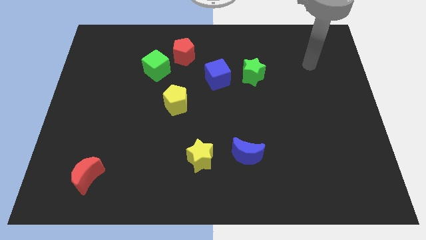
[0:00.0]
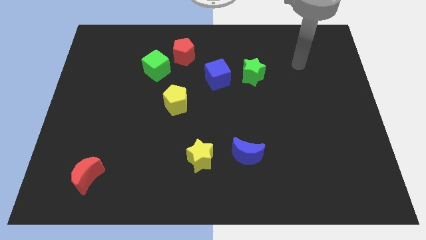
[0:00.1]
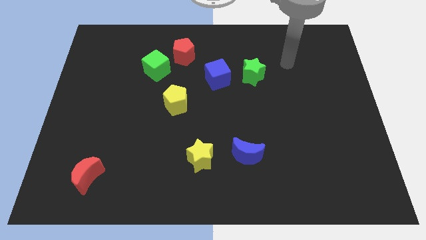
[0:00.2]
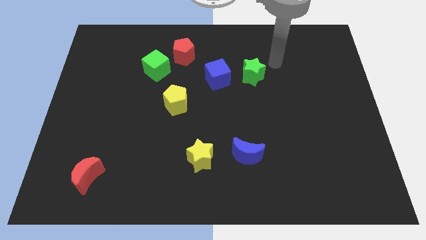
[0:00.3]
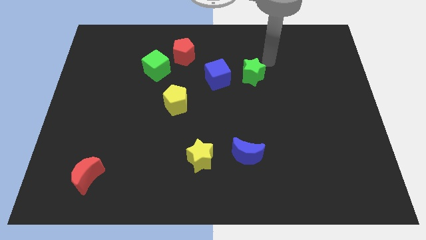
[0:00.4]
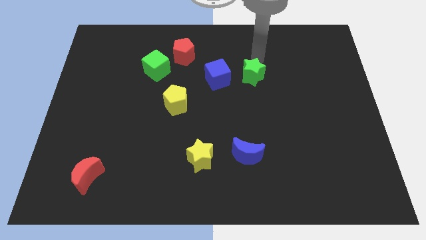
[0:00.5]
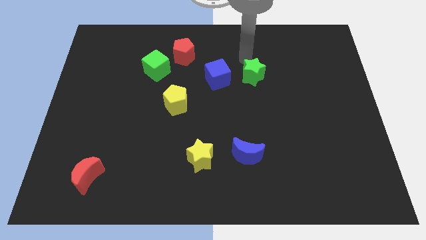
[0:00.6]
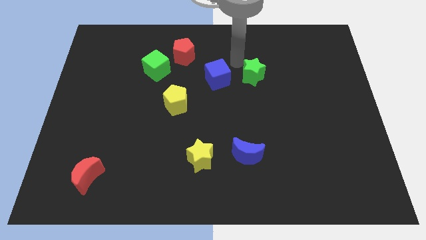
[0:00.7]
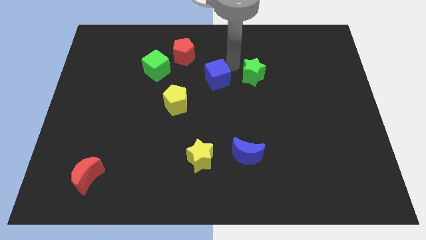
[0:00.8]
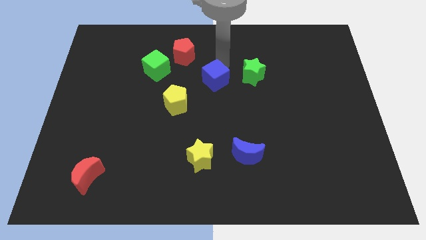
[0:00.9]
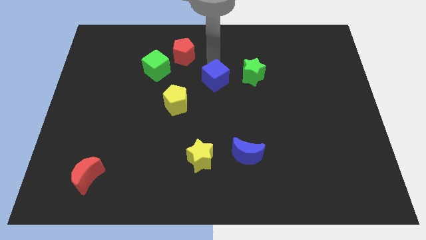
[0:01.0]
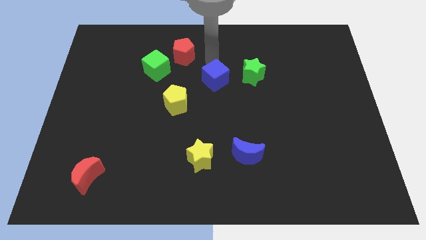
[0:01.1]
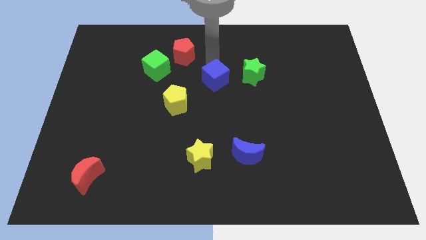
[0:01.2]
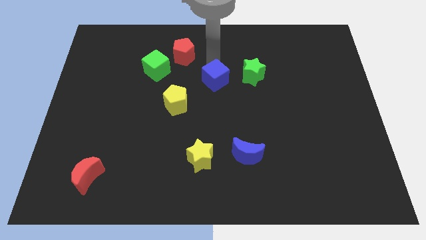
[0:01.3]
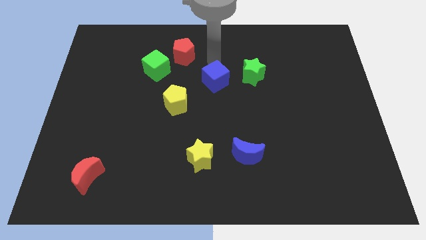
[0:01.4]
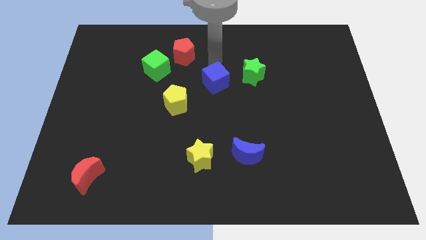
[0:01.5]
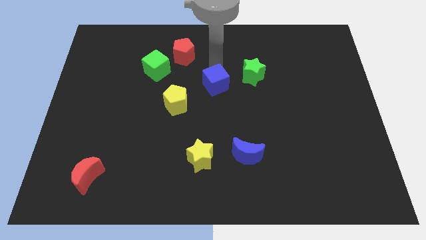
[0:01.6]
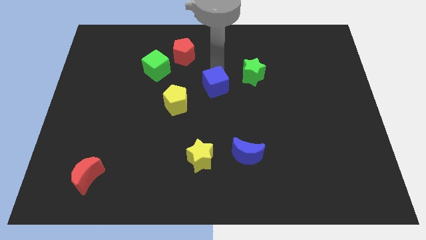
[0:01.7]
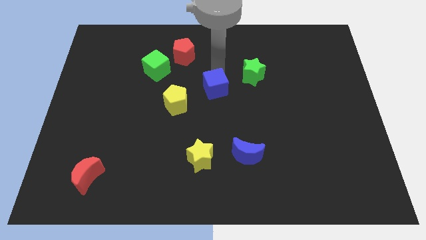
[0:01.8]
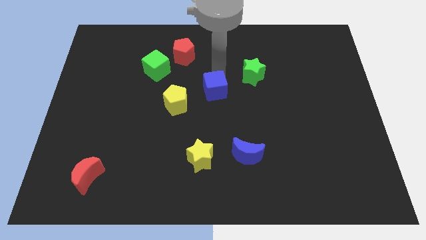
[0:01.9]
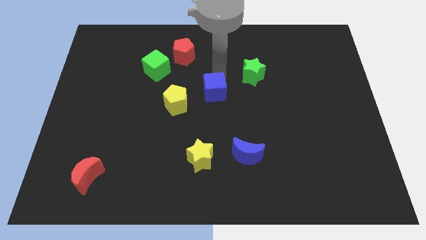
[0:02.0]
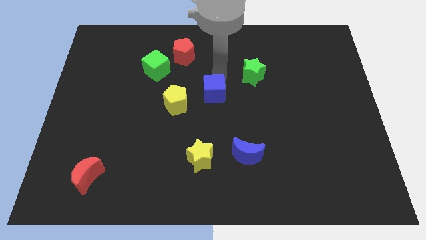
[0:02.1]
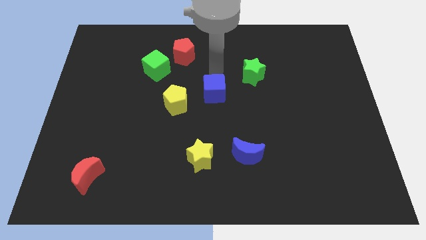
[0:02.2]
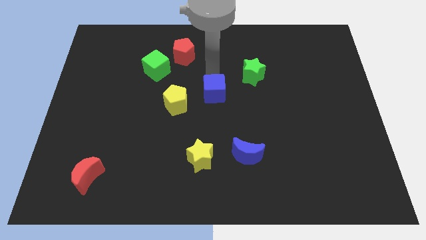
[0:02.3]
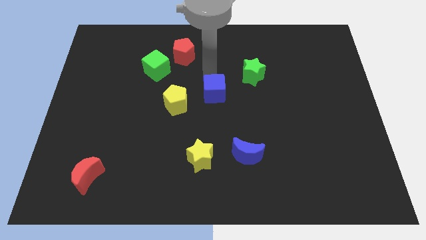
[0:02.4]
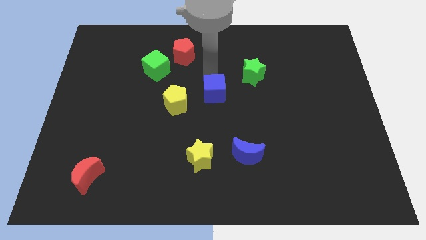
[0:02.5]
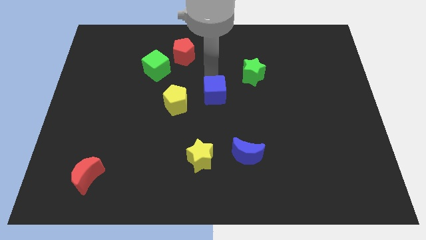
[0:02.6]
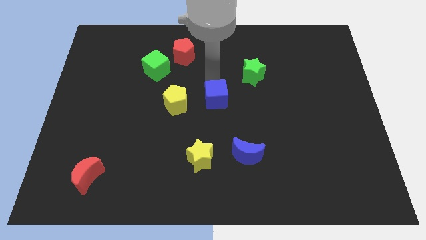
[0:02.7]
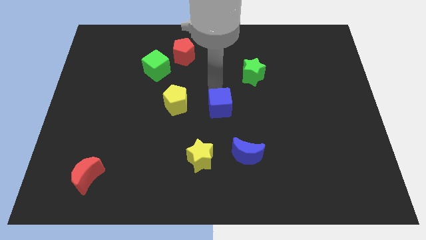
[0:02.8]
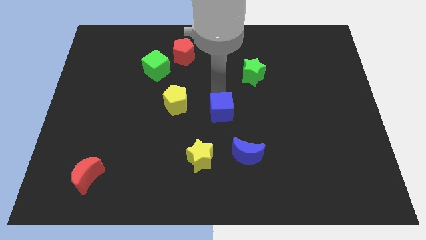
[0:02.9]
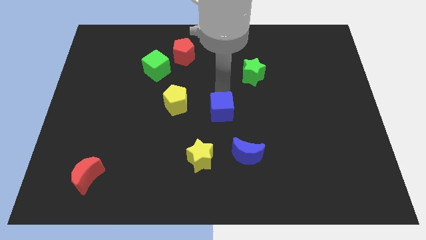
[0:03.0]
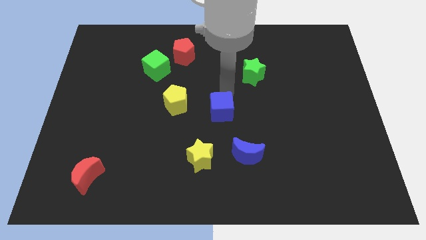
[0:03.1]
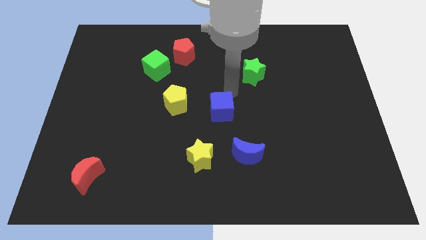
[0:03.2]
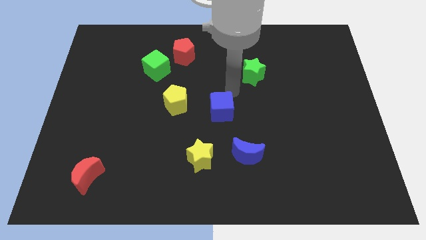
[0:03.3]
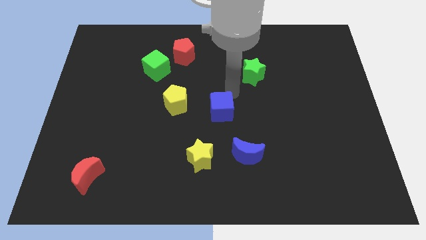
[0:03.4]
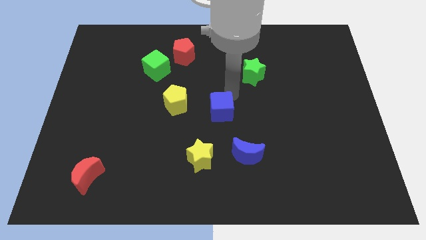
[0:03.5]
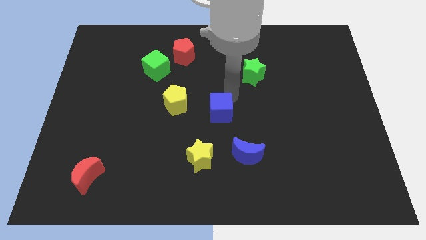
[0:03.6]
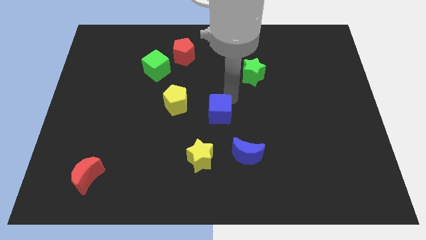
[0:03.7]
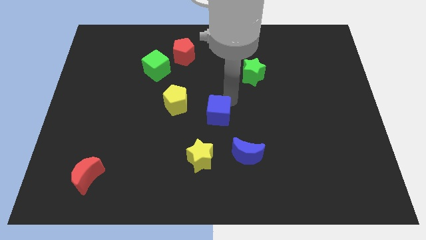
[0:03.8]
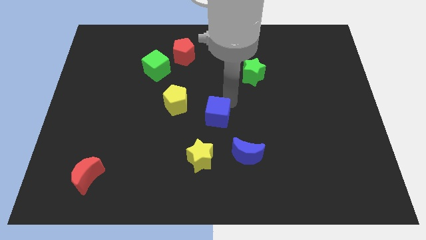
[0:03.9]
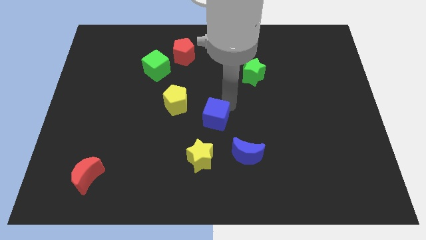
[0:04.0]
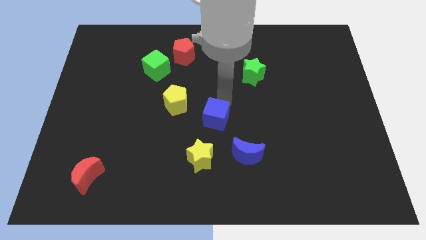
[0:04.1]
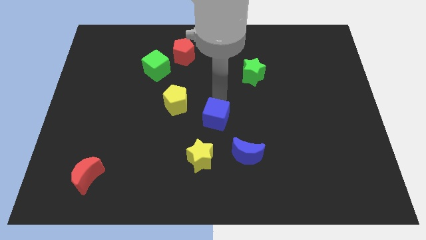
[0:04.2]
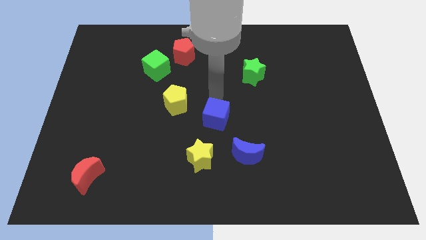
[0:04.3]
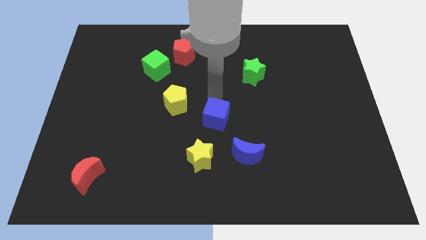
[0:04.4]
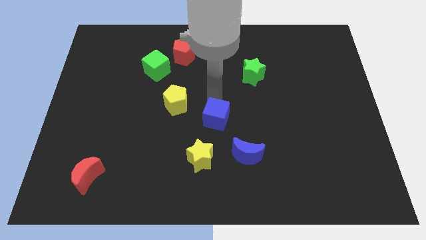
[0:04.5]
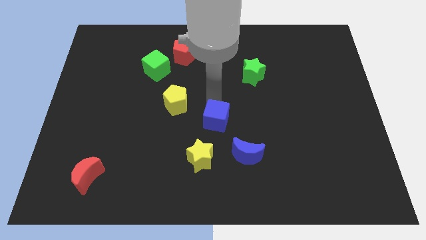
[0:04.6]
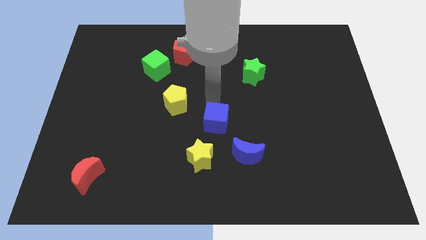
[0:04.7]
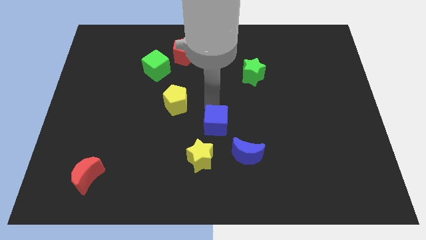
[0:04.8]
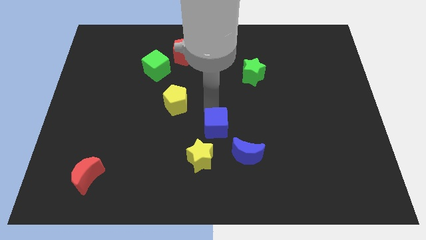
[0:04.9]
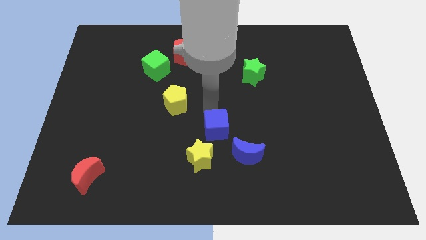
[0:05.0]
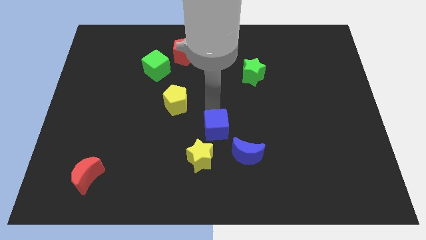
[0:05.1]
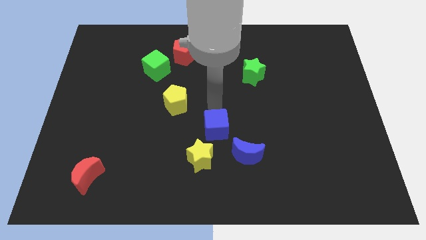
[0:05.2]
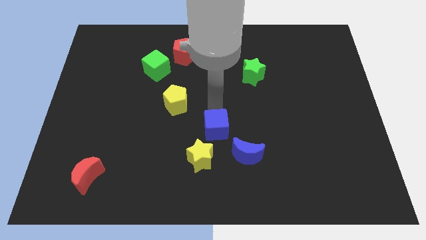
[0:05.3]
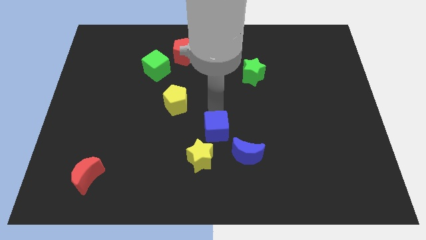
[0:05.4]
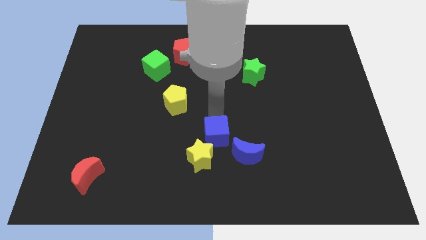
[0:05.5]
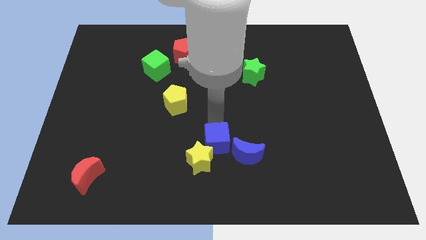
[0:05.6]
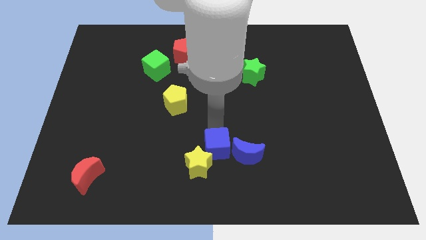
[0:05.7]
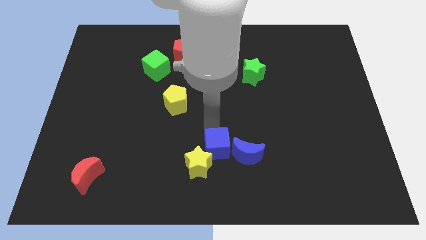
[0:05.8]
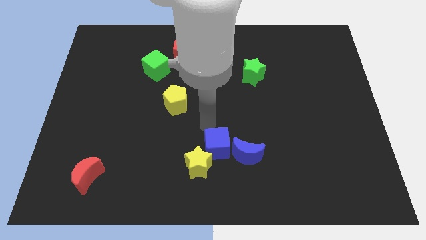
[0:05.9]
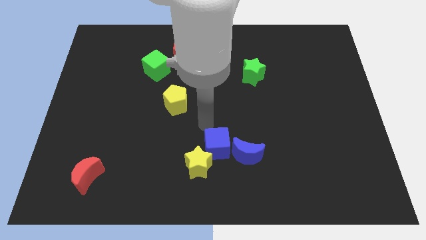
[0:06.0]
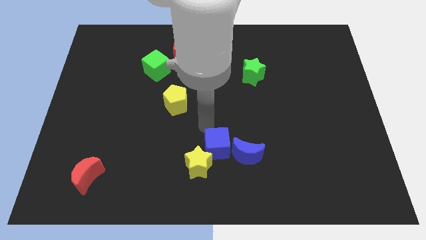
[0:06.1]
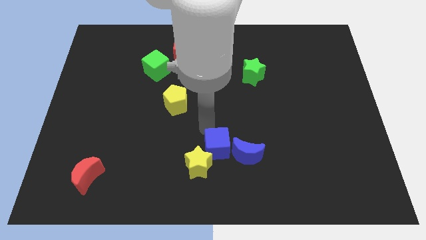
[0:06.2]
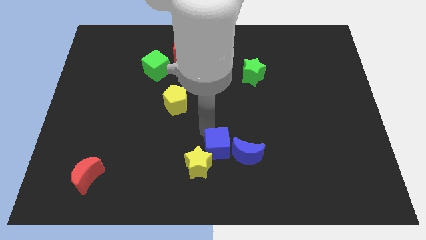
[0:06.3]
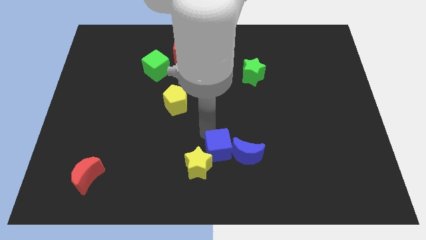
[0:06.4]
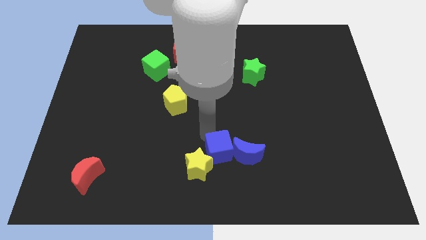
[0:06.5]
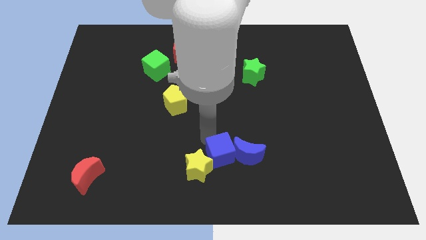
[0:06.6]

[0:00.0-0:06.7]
push the blue cube to the bottom side

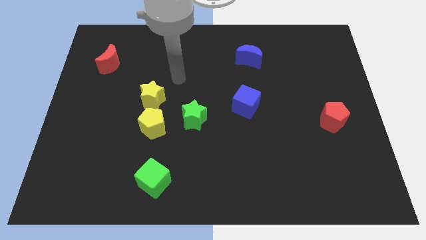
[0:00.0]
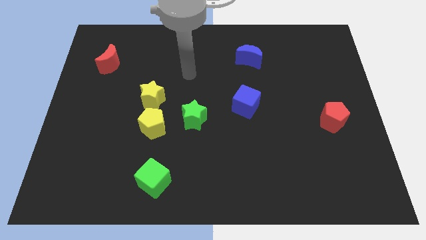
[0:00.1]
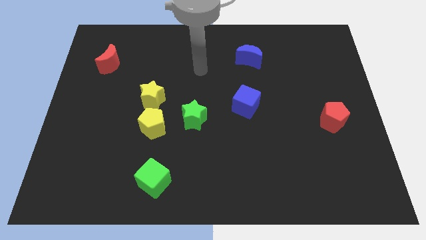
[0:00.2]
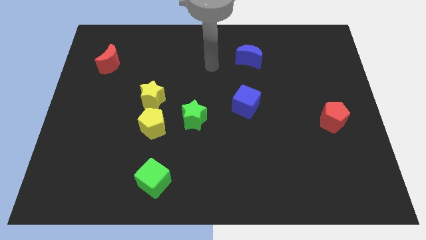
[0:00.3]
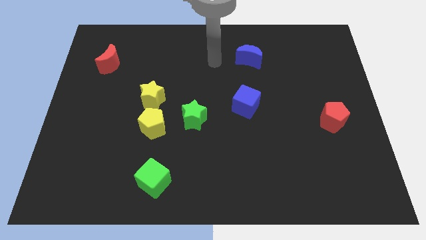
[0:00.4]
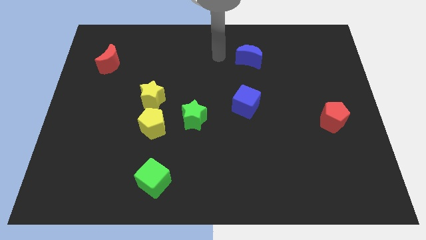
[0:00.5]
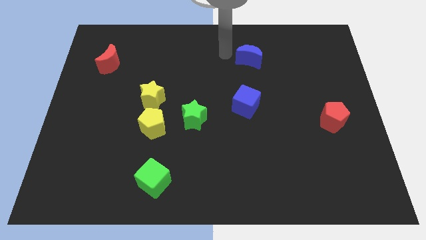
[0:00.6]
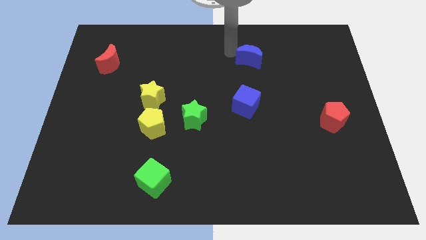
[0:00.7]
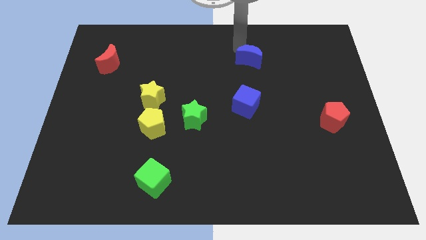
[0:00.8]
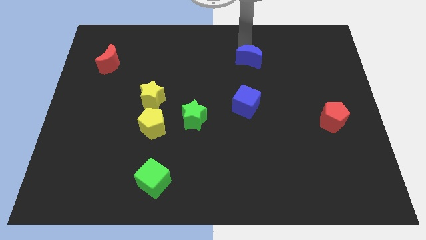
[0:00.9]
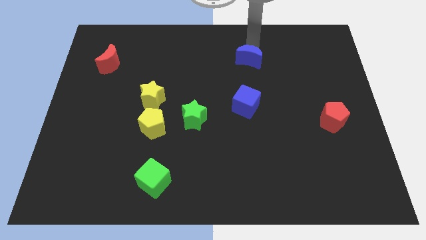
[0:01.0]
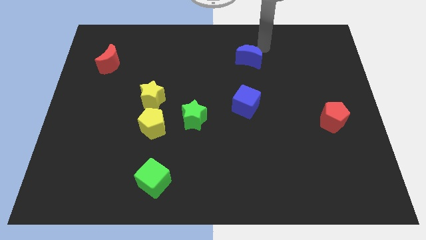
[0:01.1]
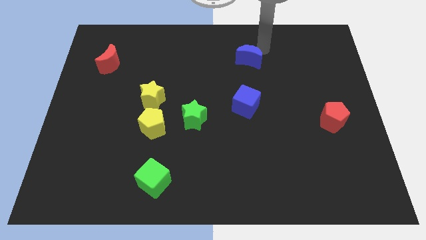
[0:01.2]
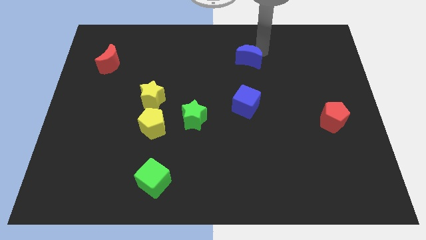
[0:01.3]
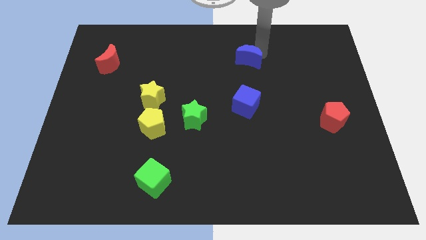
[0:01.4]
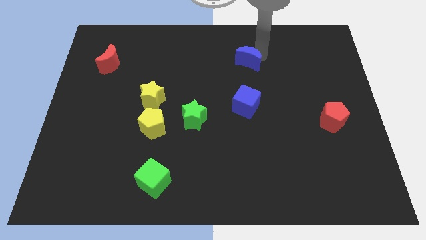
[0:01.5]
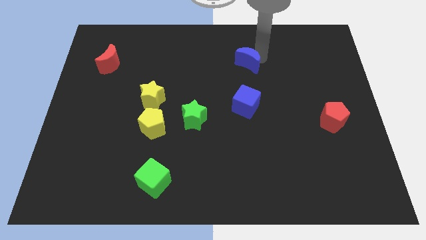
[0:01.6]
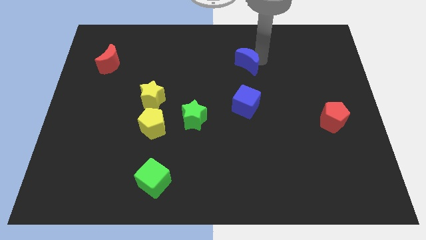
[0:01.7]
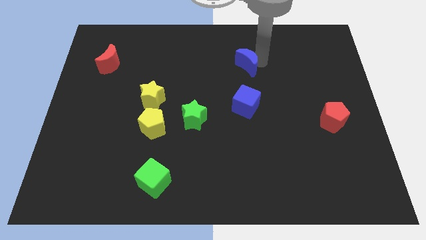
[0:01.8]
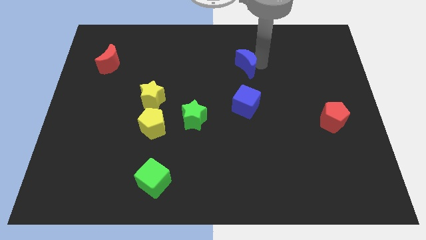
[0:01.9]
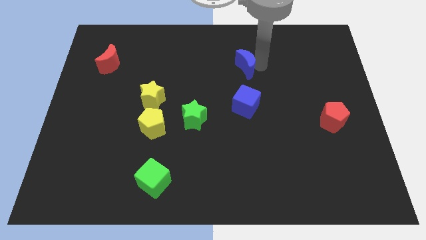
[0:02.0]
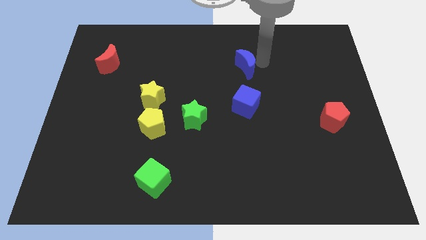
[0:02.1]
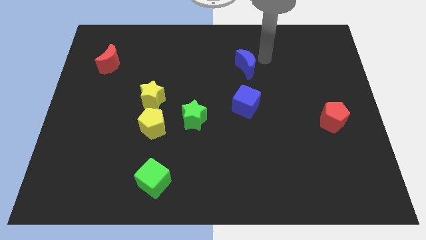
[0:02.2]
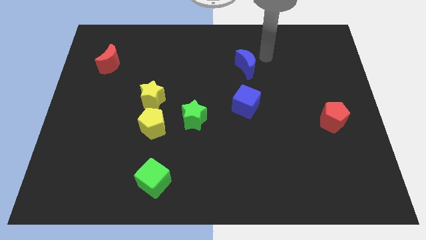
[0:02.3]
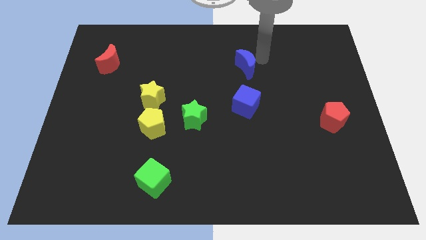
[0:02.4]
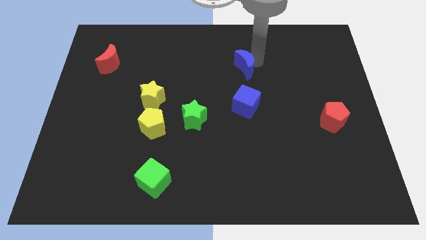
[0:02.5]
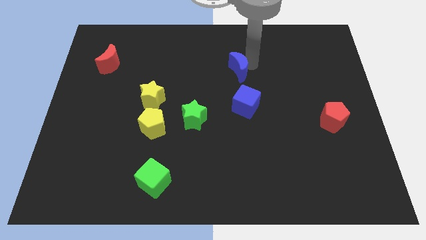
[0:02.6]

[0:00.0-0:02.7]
put the blue moon to the center of the board
